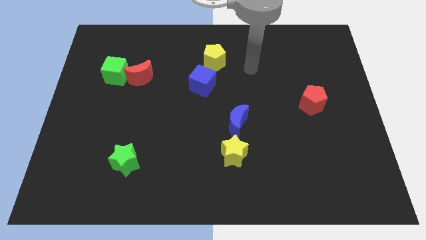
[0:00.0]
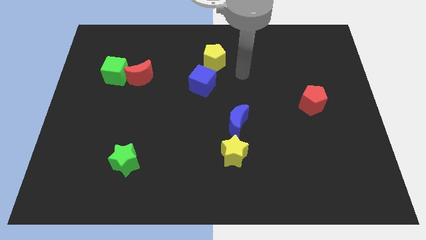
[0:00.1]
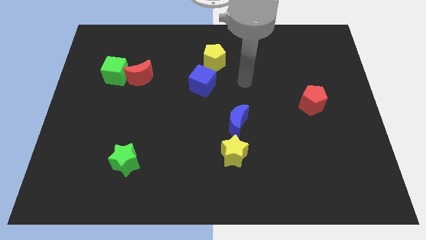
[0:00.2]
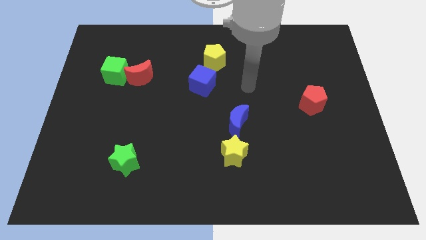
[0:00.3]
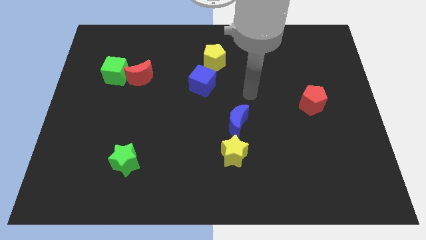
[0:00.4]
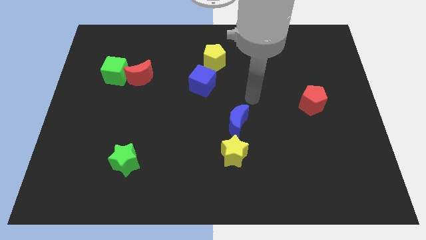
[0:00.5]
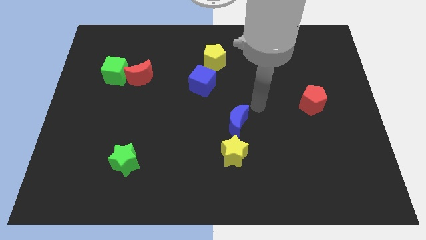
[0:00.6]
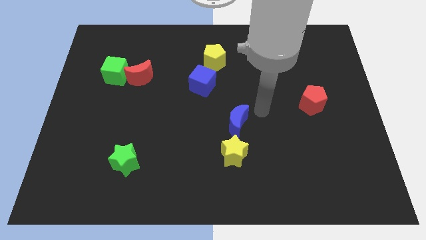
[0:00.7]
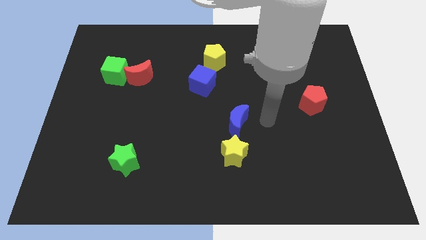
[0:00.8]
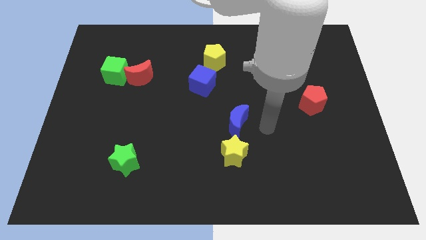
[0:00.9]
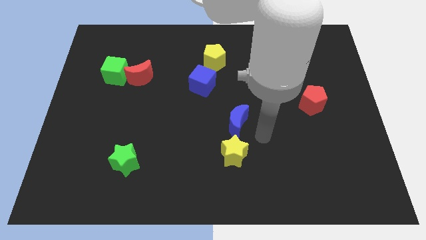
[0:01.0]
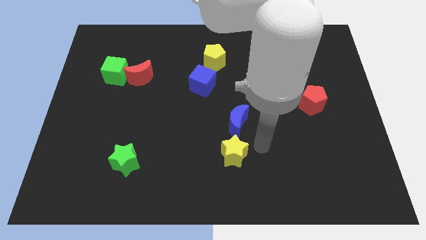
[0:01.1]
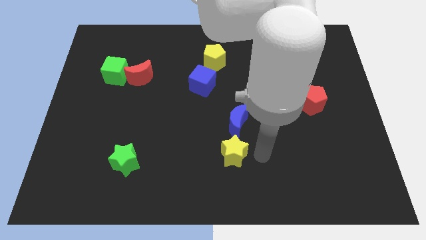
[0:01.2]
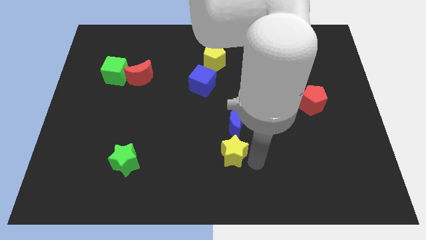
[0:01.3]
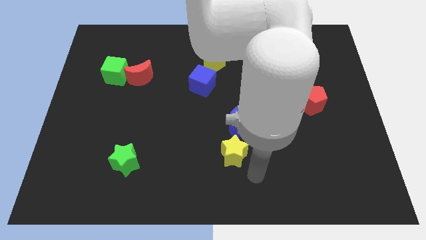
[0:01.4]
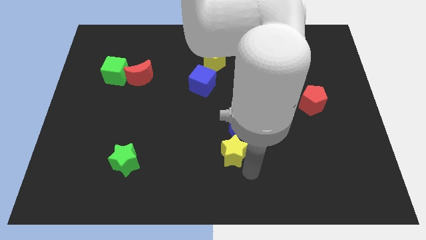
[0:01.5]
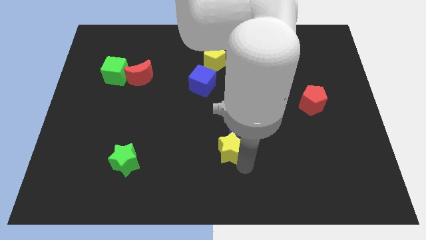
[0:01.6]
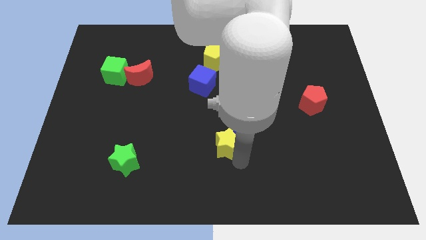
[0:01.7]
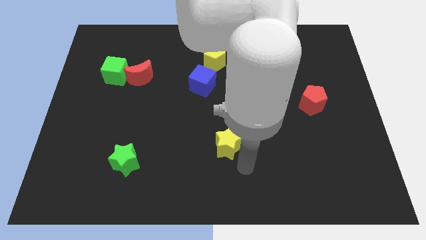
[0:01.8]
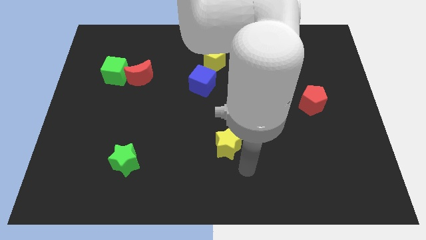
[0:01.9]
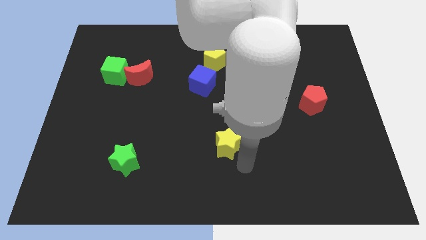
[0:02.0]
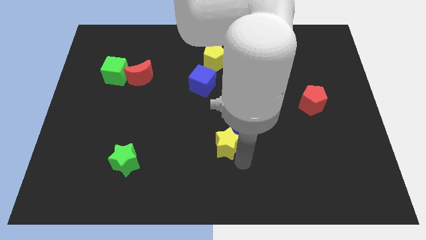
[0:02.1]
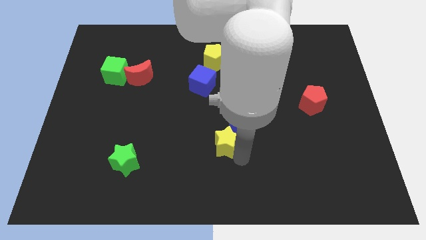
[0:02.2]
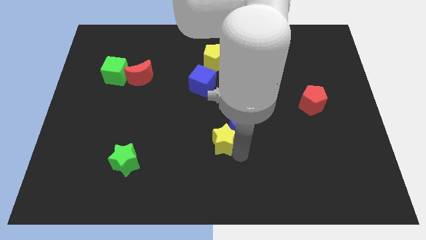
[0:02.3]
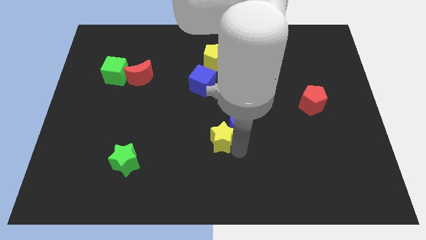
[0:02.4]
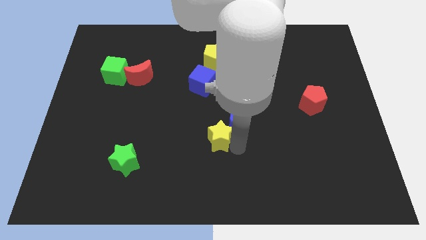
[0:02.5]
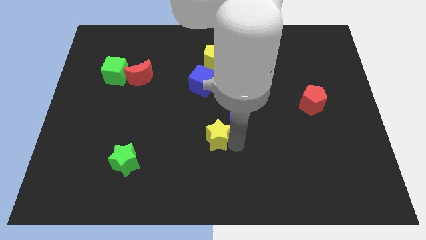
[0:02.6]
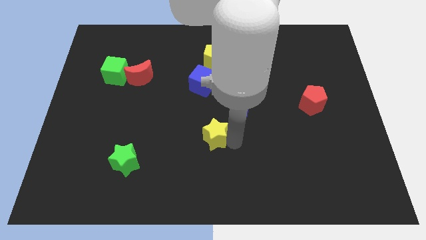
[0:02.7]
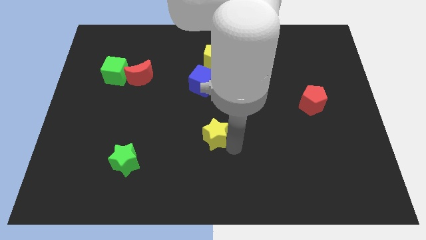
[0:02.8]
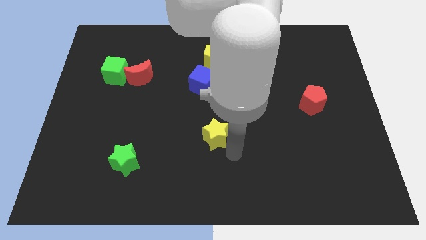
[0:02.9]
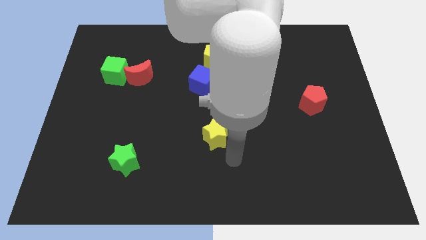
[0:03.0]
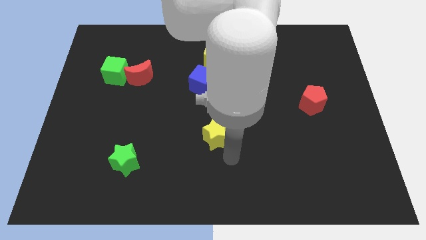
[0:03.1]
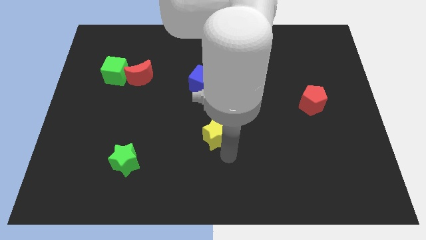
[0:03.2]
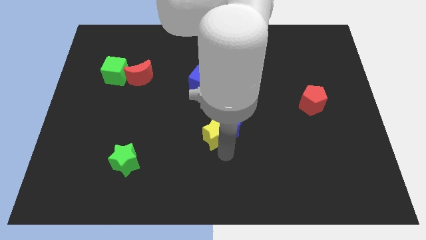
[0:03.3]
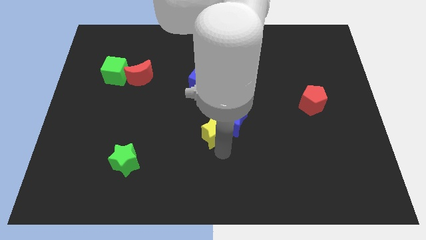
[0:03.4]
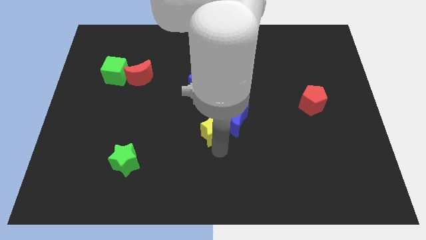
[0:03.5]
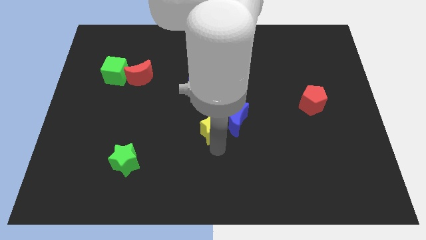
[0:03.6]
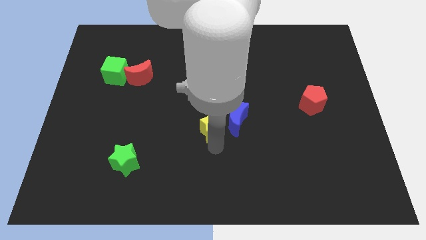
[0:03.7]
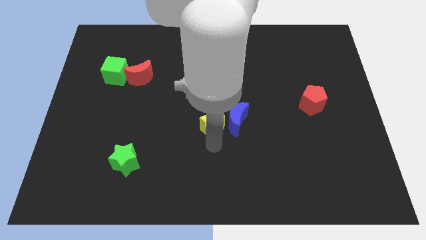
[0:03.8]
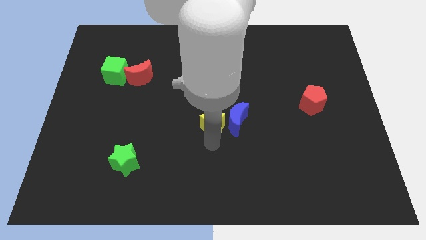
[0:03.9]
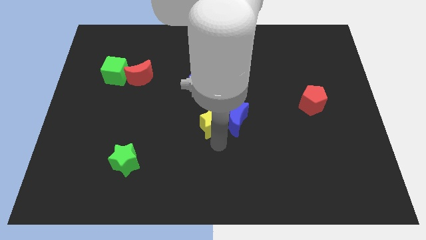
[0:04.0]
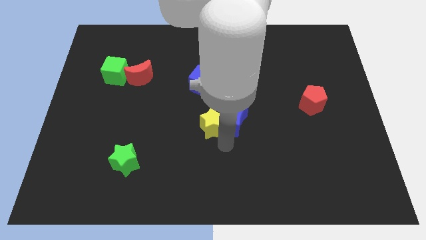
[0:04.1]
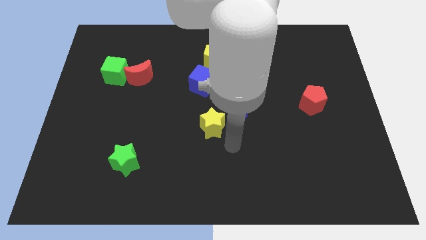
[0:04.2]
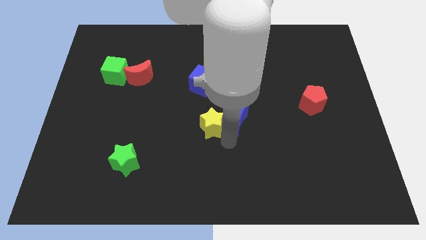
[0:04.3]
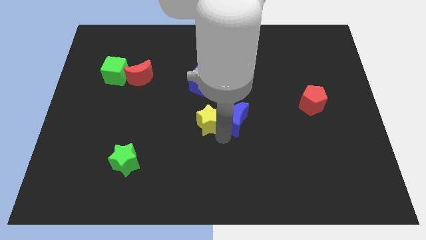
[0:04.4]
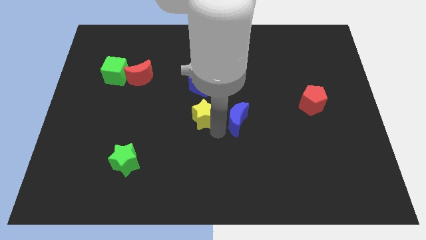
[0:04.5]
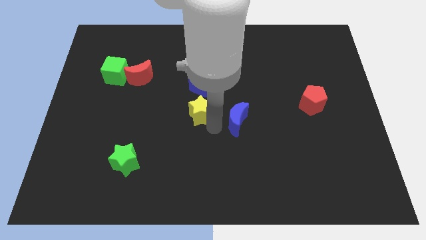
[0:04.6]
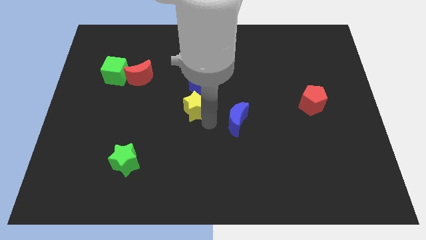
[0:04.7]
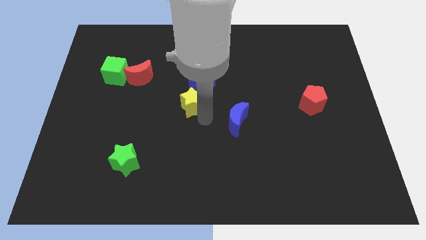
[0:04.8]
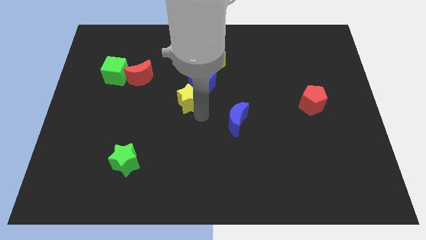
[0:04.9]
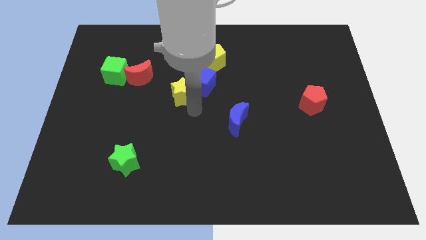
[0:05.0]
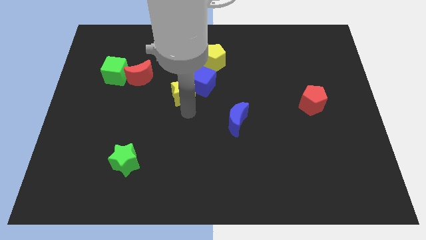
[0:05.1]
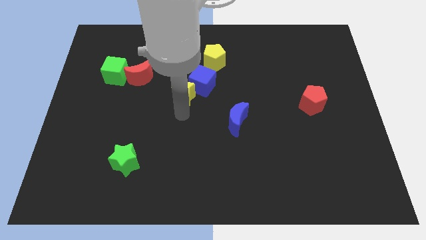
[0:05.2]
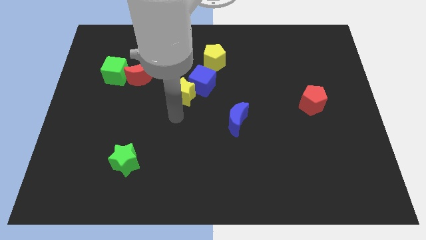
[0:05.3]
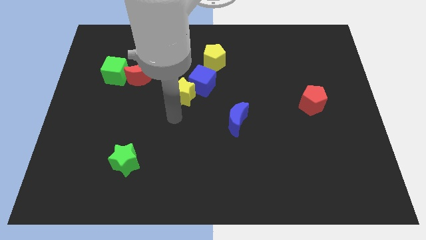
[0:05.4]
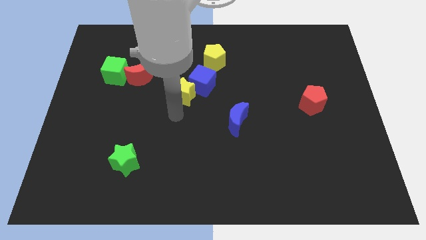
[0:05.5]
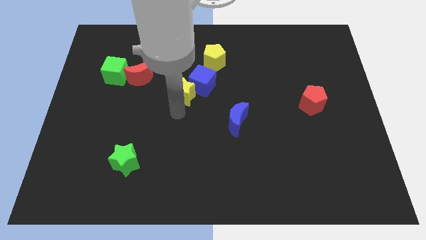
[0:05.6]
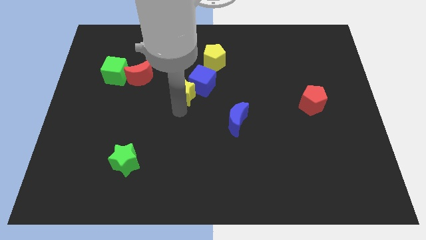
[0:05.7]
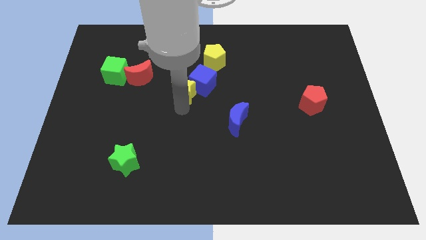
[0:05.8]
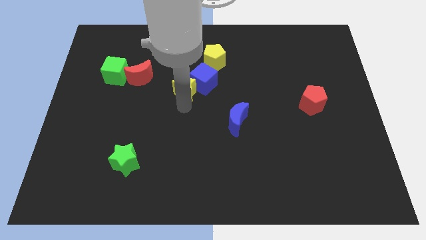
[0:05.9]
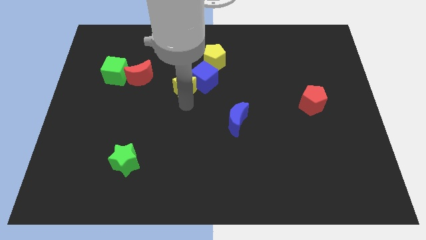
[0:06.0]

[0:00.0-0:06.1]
put the yellow star to the bottom left side of the yellow pentagon
